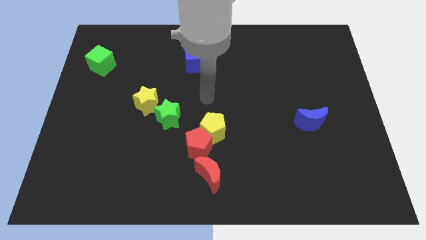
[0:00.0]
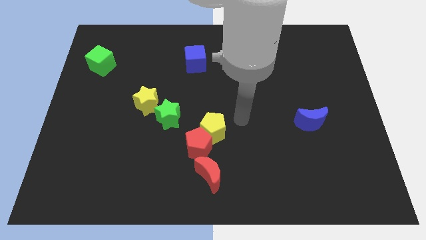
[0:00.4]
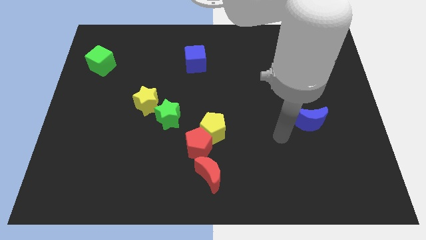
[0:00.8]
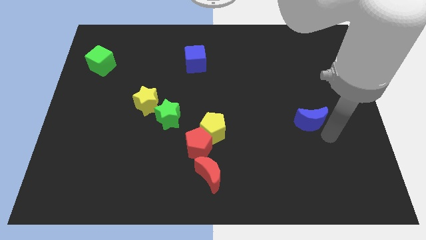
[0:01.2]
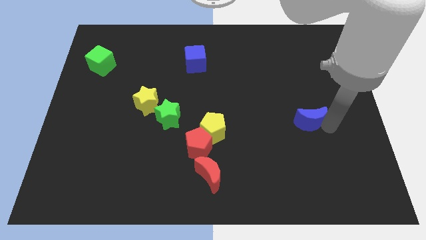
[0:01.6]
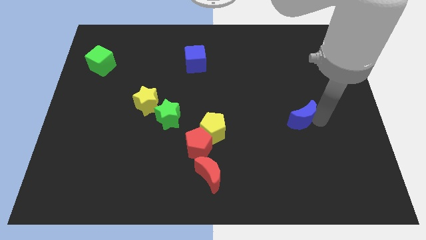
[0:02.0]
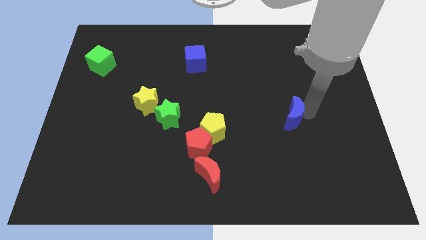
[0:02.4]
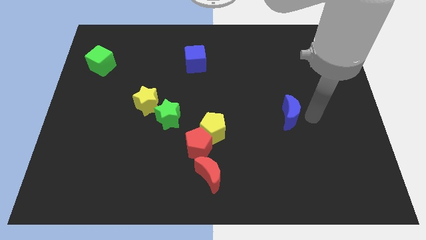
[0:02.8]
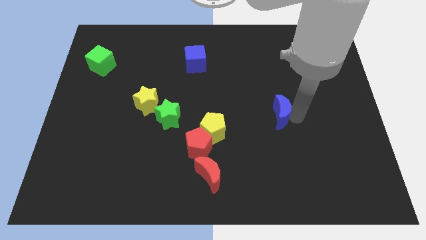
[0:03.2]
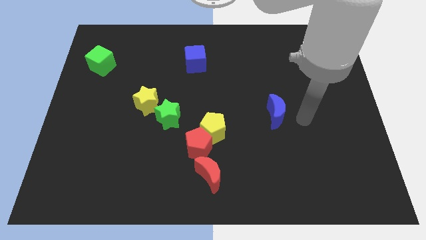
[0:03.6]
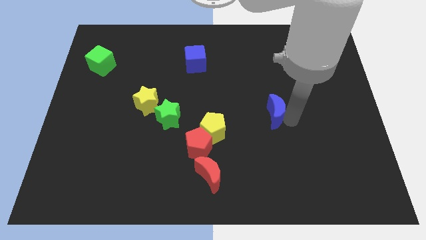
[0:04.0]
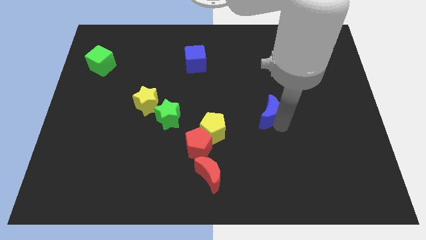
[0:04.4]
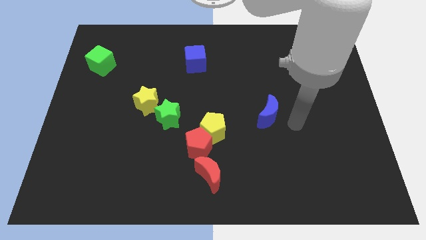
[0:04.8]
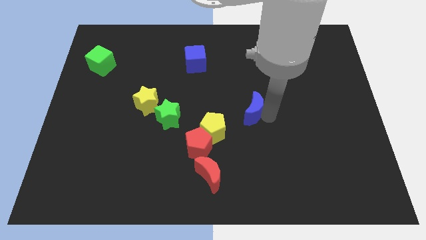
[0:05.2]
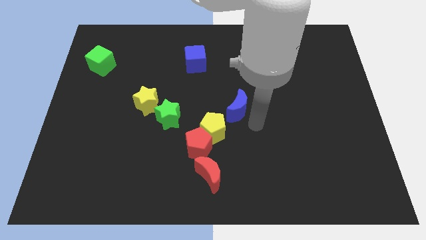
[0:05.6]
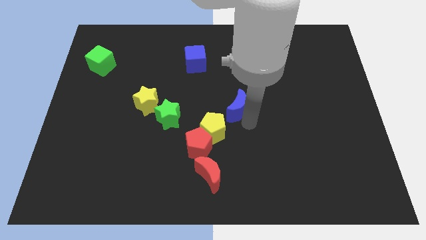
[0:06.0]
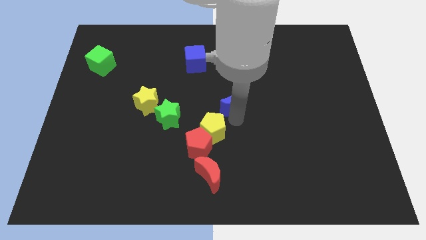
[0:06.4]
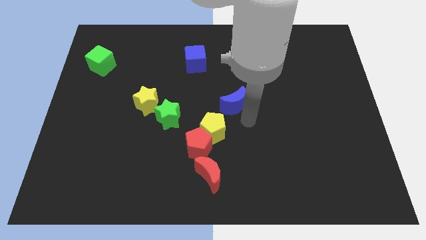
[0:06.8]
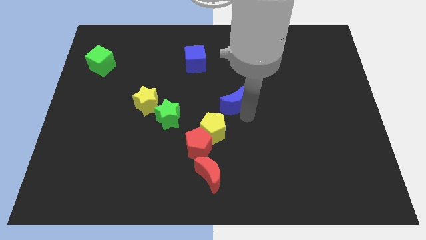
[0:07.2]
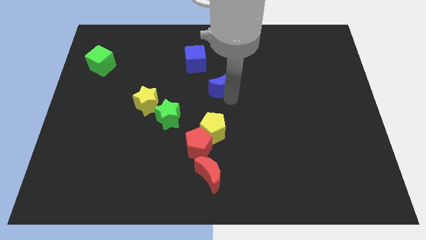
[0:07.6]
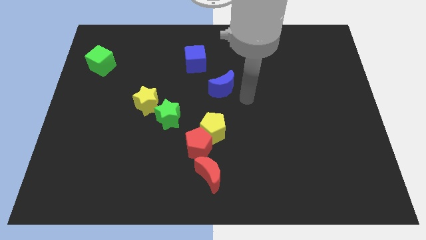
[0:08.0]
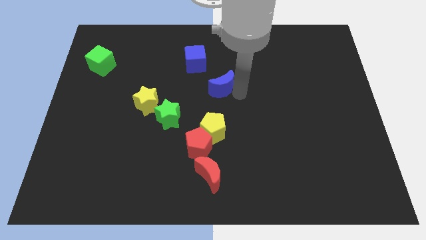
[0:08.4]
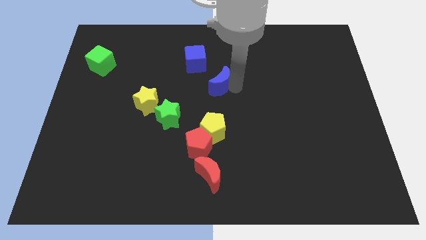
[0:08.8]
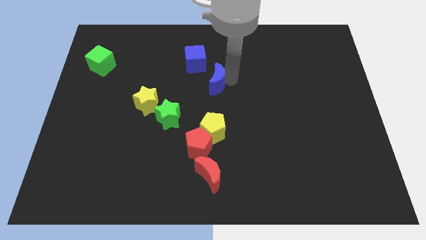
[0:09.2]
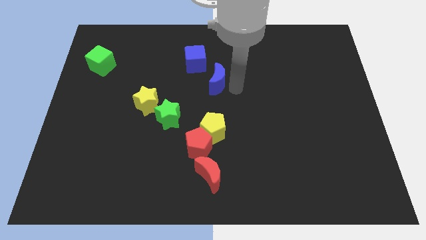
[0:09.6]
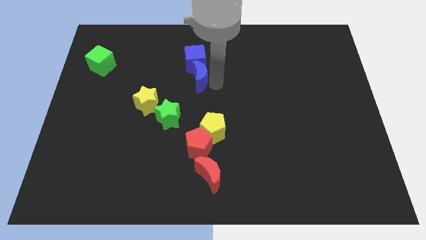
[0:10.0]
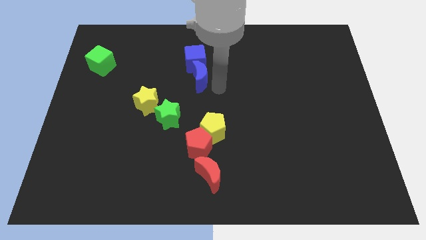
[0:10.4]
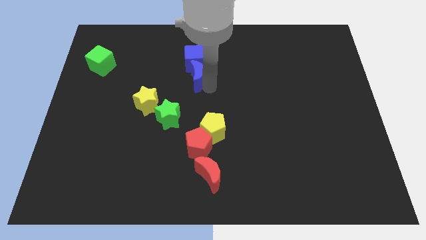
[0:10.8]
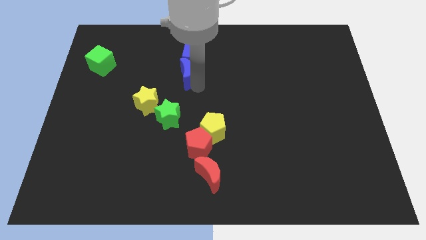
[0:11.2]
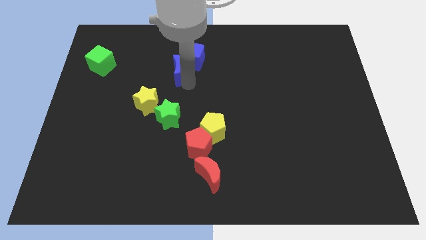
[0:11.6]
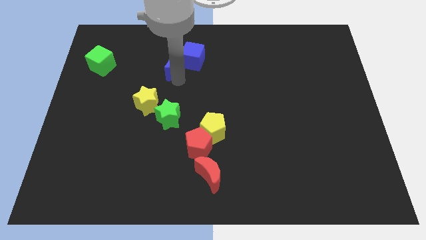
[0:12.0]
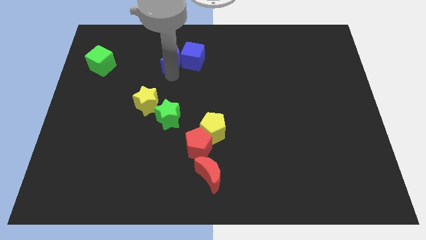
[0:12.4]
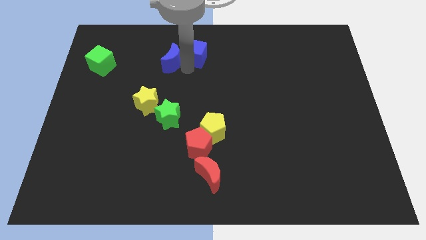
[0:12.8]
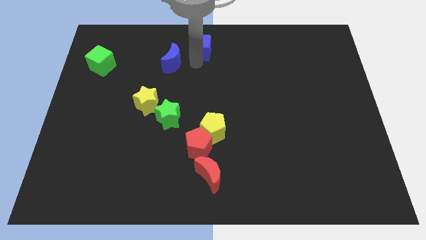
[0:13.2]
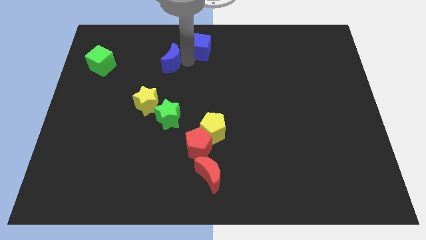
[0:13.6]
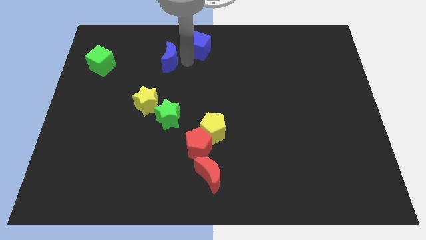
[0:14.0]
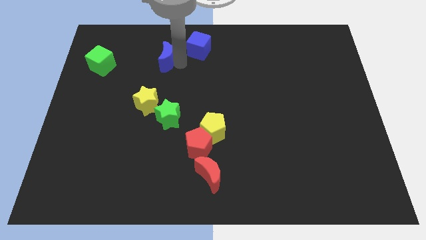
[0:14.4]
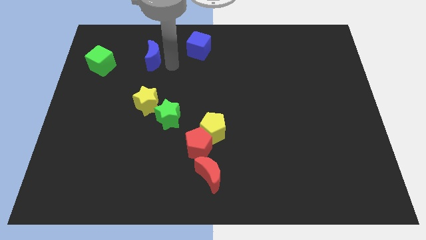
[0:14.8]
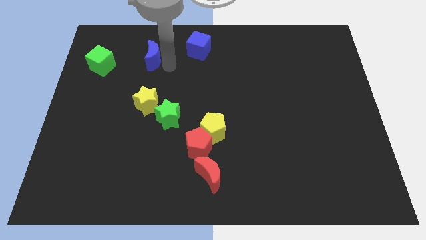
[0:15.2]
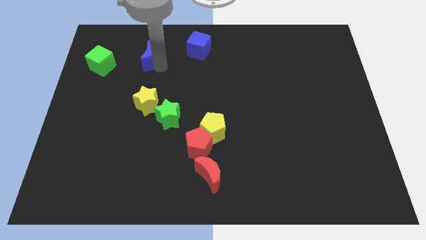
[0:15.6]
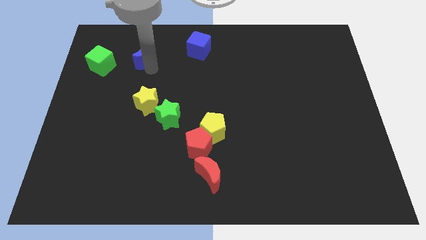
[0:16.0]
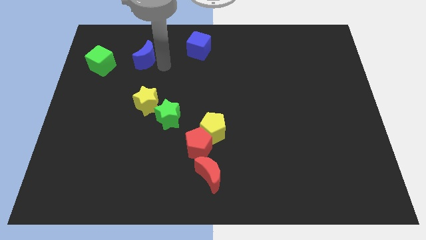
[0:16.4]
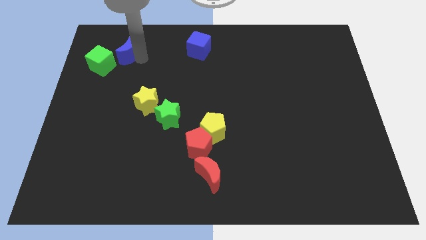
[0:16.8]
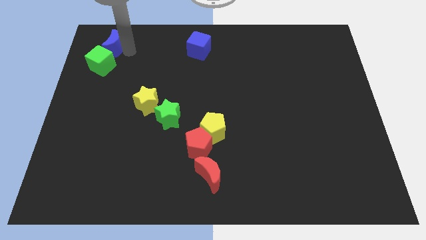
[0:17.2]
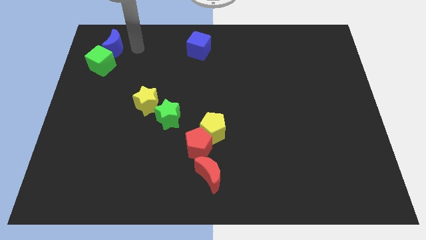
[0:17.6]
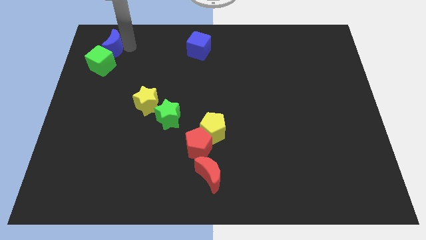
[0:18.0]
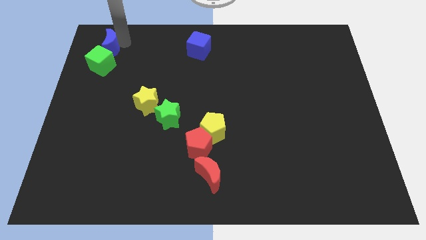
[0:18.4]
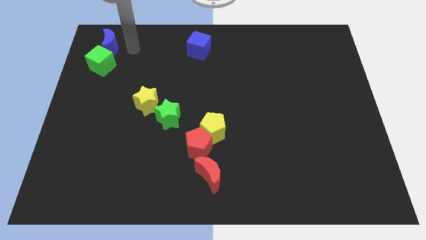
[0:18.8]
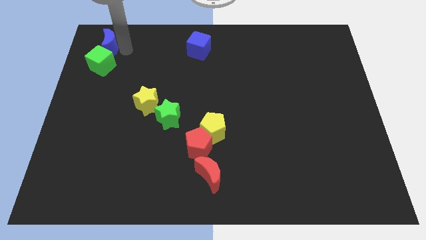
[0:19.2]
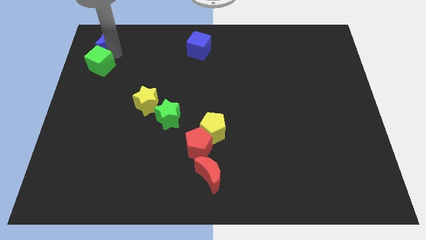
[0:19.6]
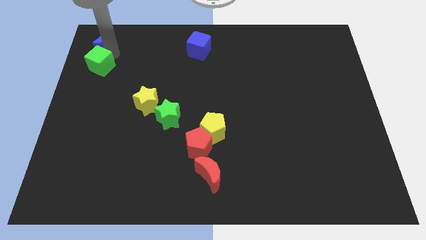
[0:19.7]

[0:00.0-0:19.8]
slide the blue moon to the upper left corner

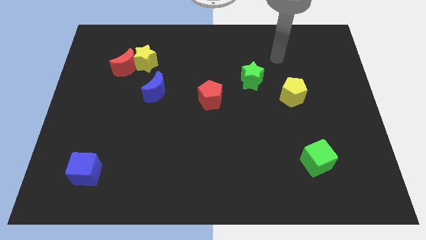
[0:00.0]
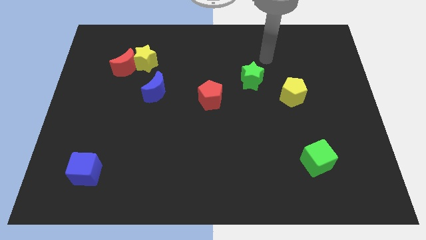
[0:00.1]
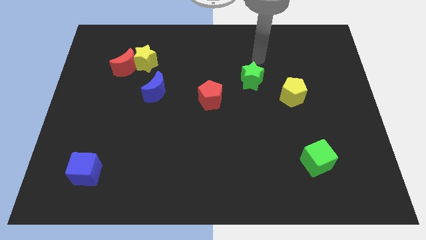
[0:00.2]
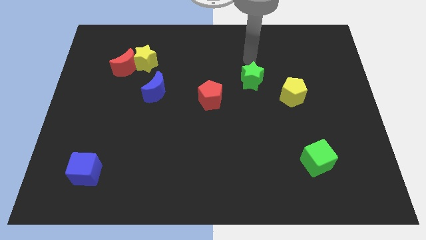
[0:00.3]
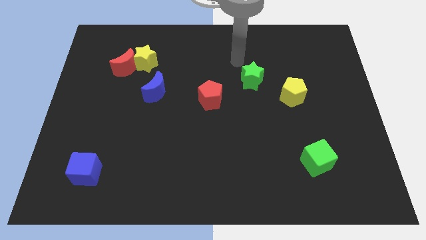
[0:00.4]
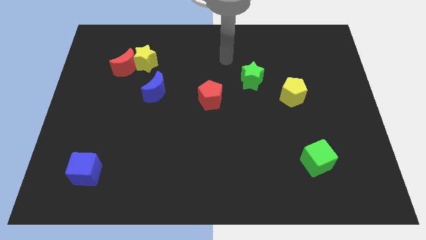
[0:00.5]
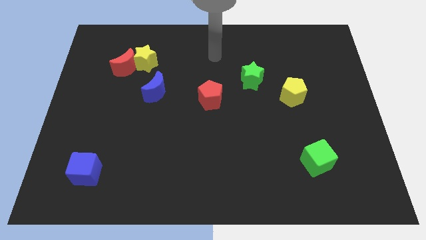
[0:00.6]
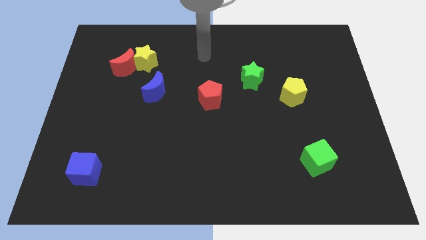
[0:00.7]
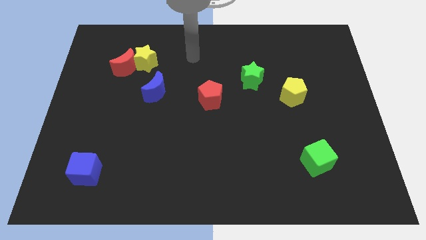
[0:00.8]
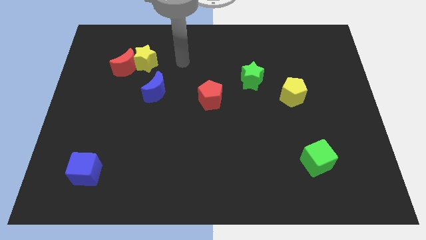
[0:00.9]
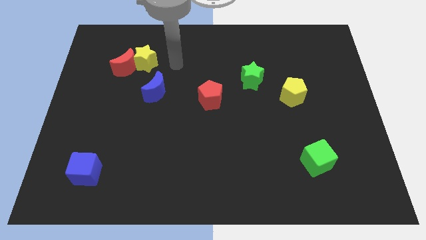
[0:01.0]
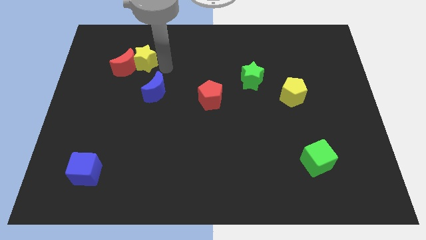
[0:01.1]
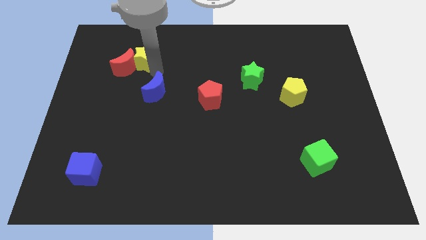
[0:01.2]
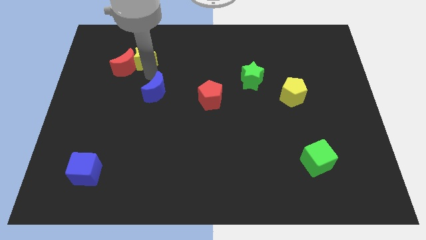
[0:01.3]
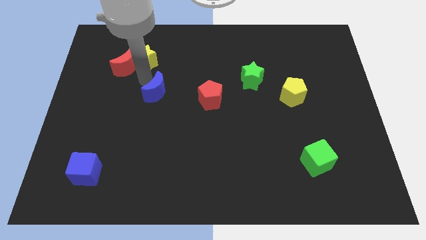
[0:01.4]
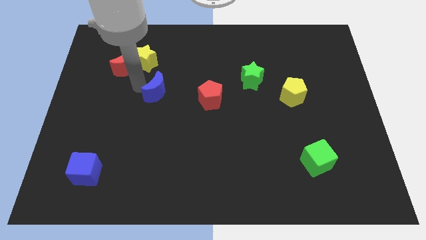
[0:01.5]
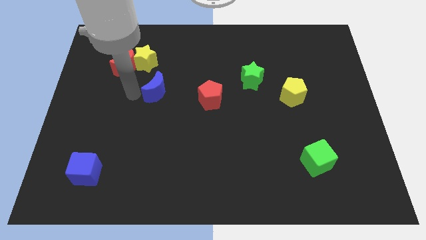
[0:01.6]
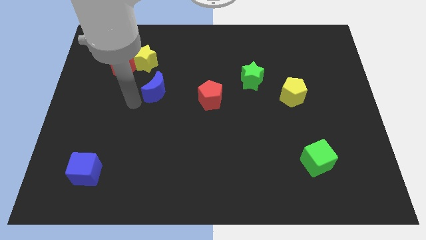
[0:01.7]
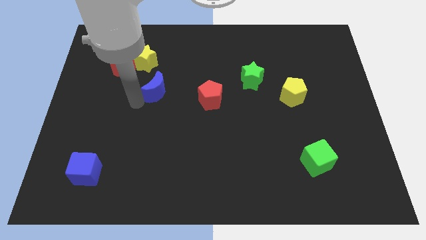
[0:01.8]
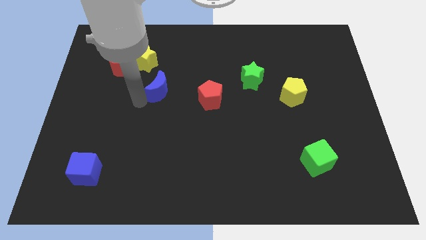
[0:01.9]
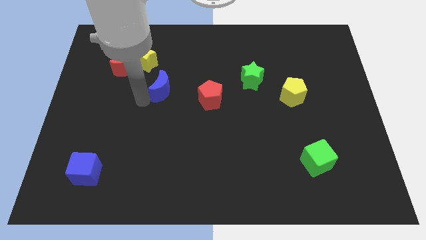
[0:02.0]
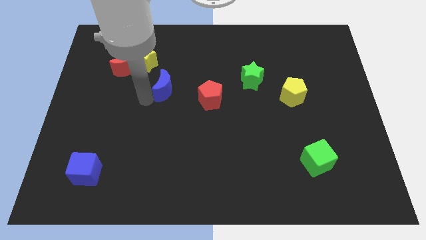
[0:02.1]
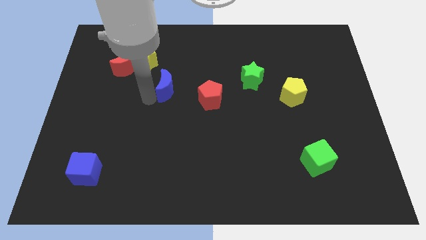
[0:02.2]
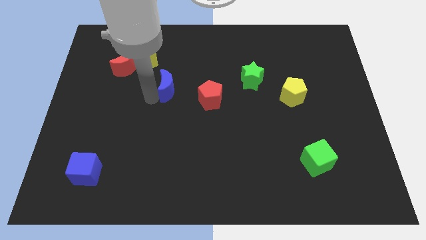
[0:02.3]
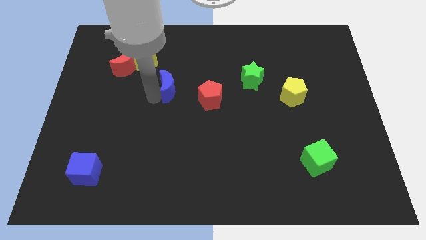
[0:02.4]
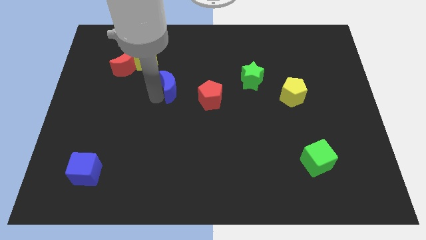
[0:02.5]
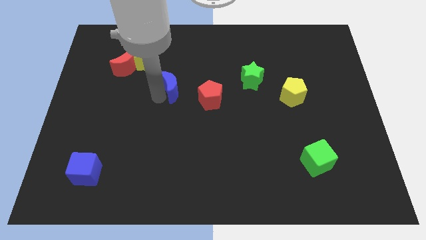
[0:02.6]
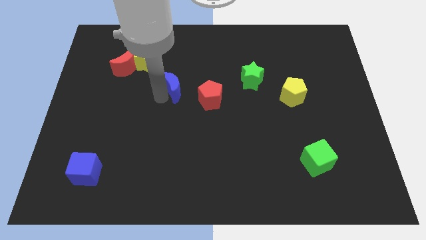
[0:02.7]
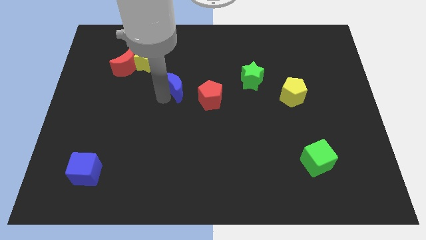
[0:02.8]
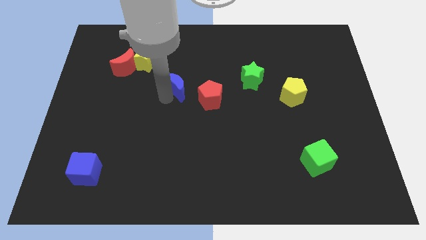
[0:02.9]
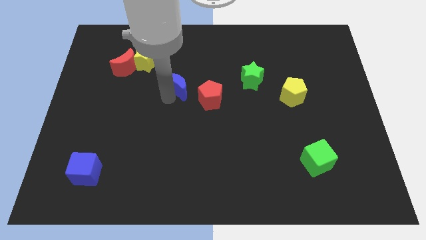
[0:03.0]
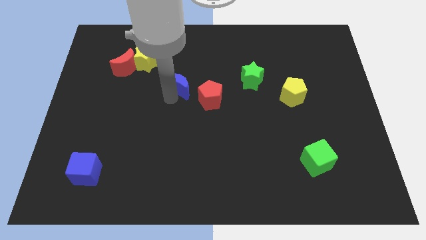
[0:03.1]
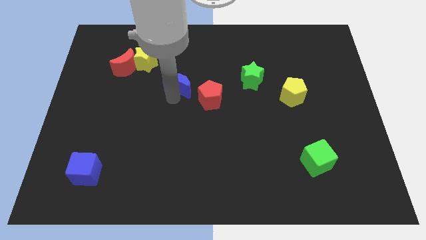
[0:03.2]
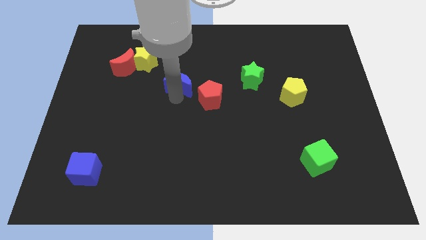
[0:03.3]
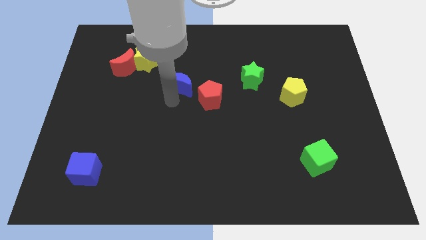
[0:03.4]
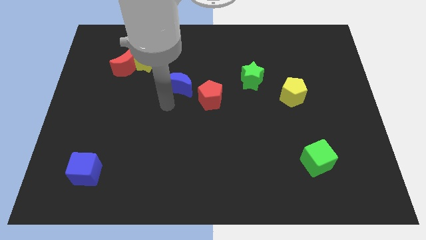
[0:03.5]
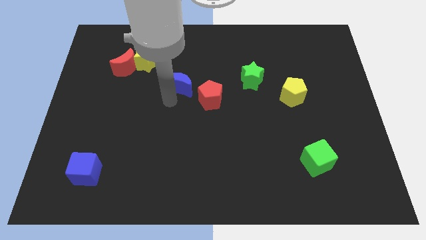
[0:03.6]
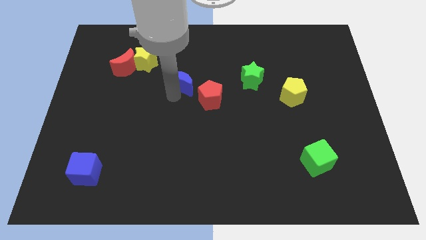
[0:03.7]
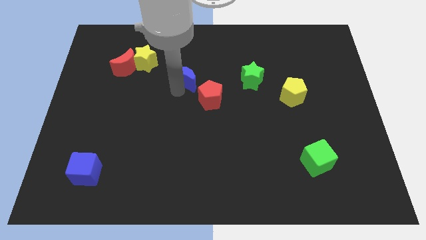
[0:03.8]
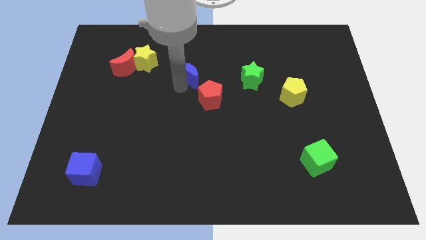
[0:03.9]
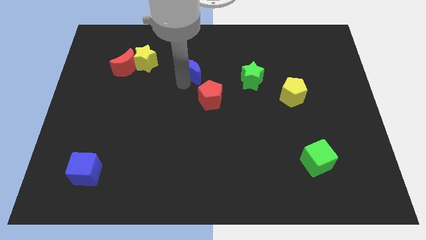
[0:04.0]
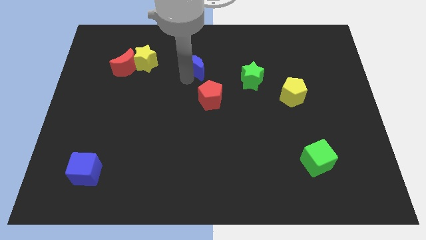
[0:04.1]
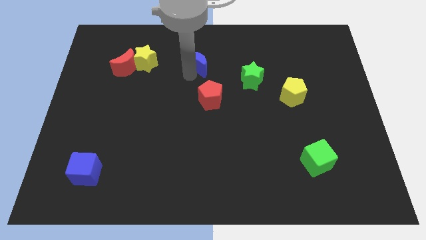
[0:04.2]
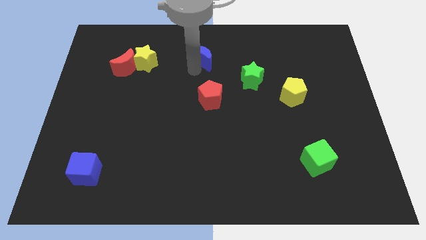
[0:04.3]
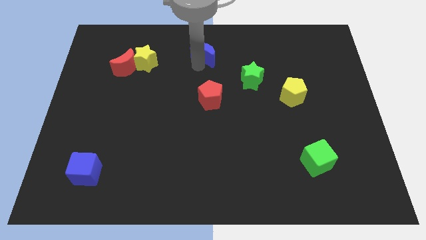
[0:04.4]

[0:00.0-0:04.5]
move the blue moon to the towards your base
